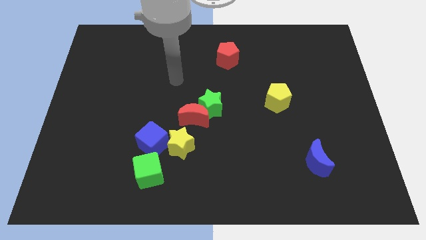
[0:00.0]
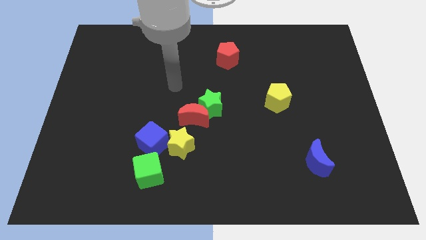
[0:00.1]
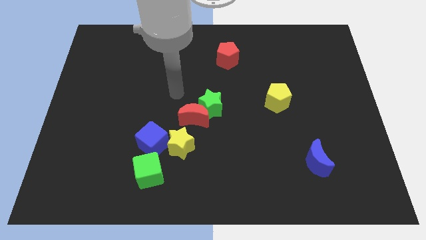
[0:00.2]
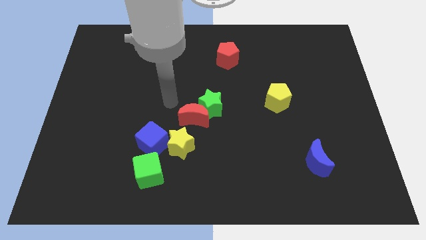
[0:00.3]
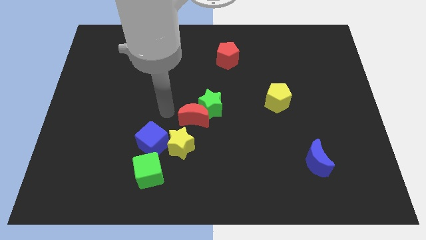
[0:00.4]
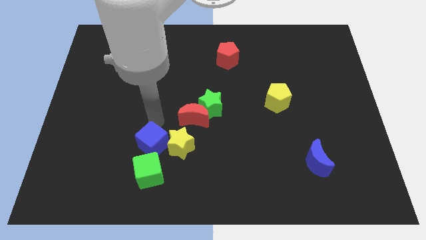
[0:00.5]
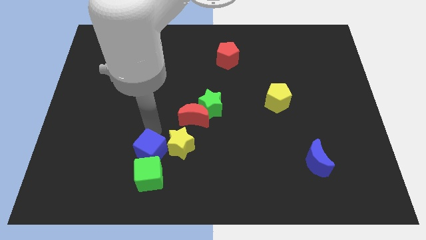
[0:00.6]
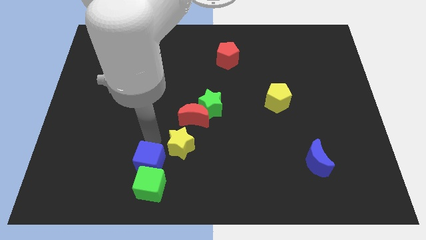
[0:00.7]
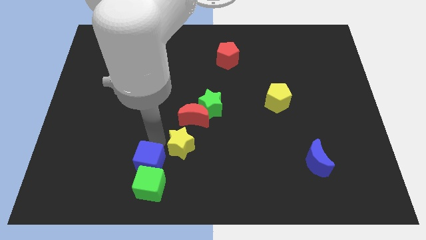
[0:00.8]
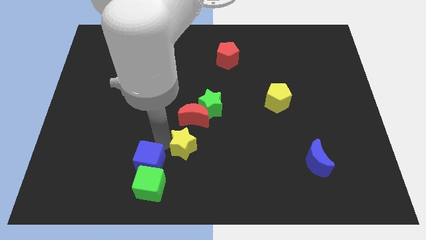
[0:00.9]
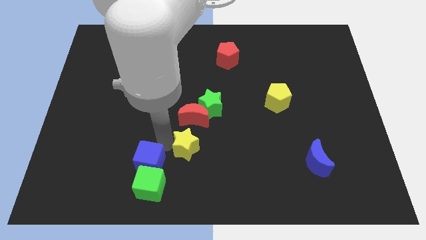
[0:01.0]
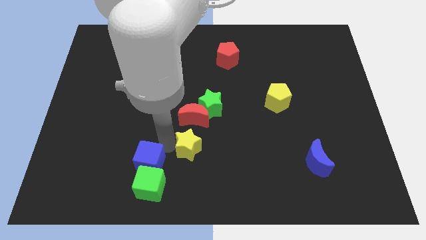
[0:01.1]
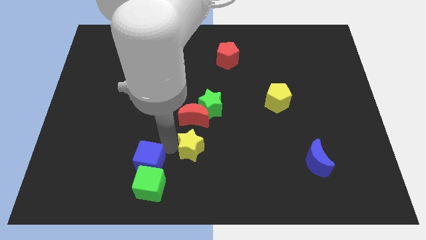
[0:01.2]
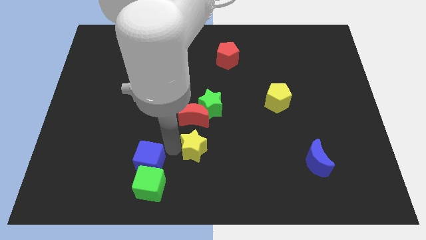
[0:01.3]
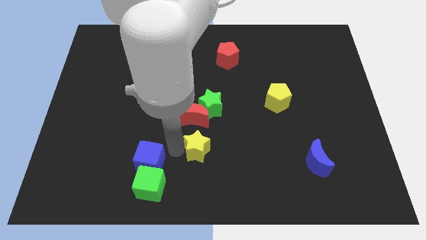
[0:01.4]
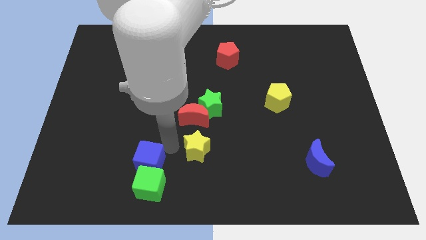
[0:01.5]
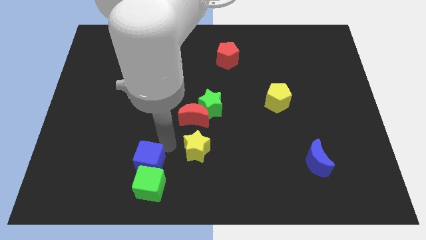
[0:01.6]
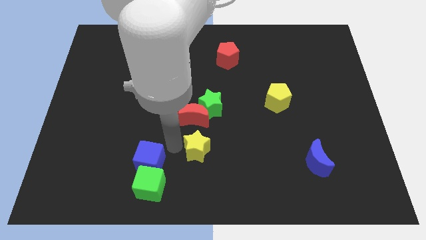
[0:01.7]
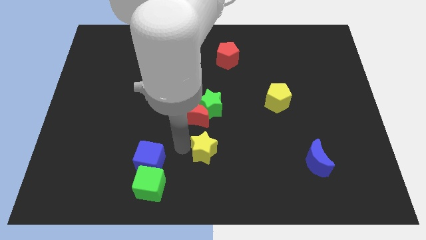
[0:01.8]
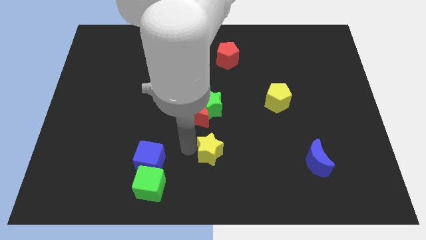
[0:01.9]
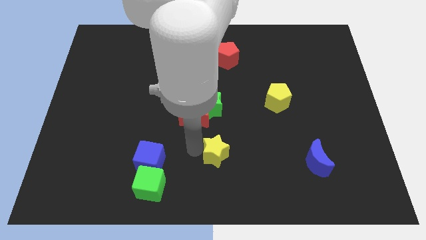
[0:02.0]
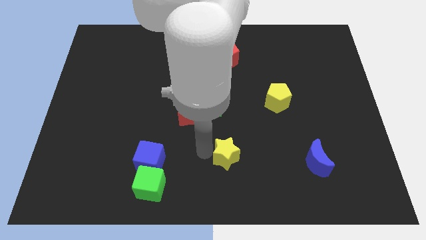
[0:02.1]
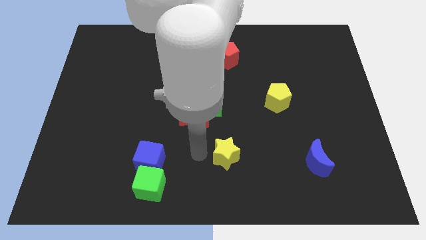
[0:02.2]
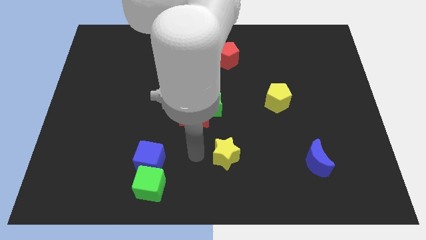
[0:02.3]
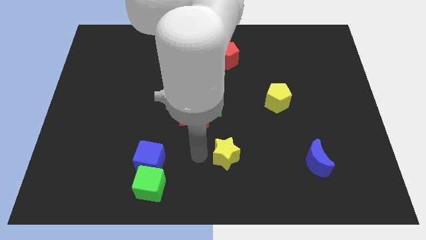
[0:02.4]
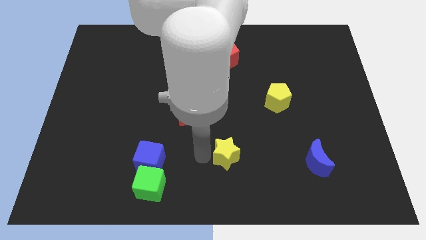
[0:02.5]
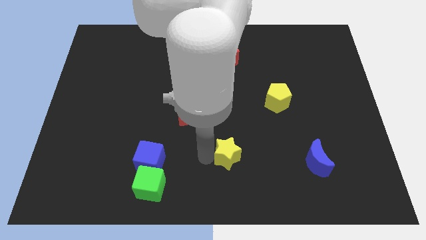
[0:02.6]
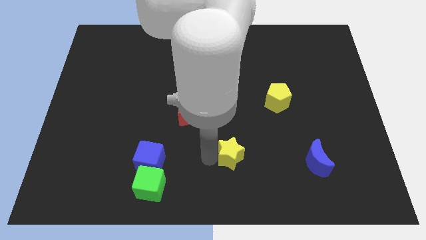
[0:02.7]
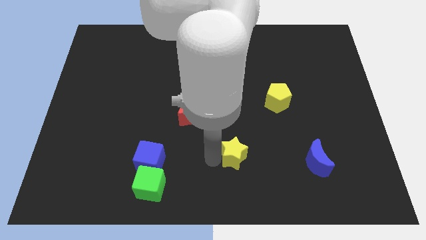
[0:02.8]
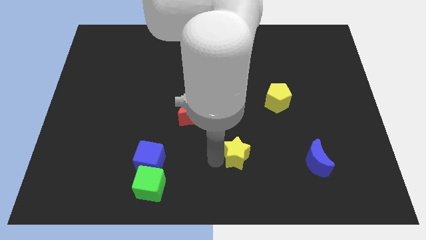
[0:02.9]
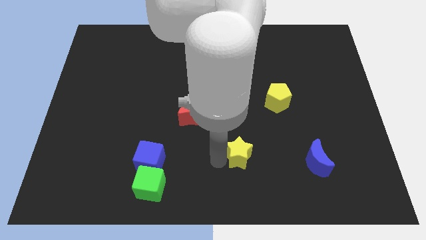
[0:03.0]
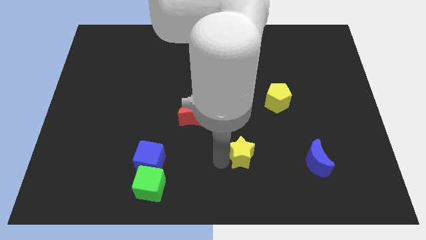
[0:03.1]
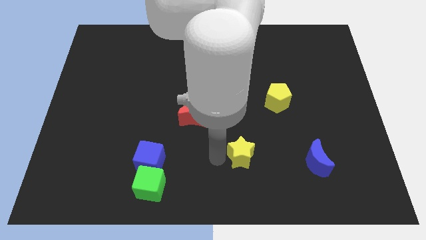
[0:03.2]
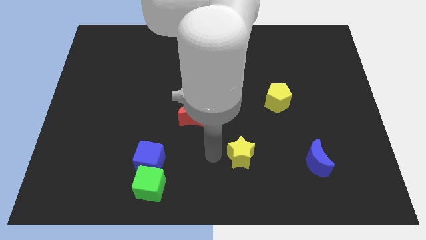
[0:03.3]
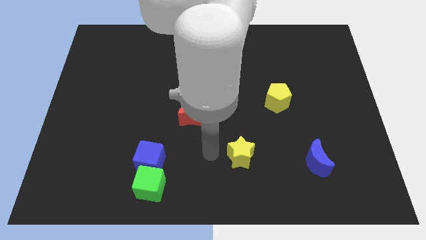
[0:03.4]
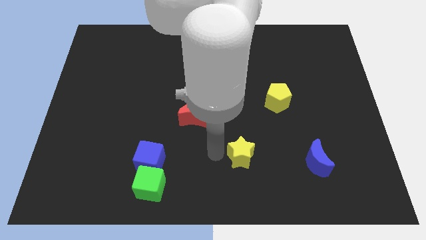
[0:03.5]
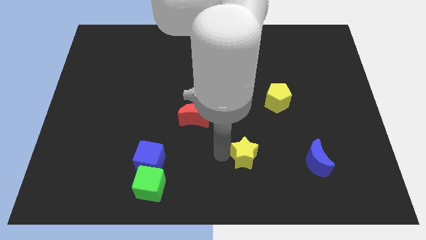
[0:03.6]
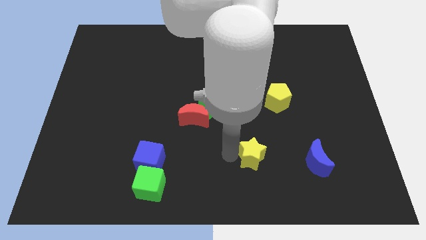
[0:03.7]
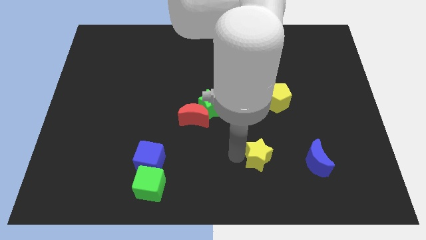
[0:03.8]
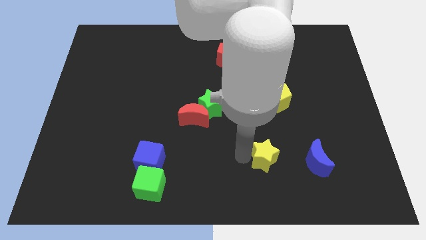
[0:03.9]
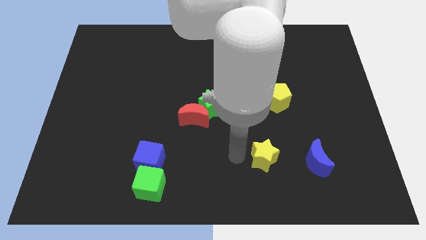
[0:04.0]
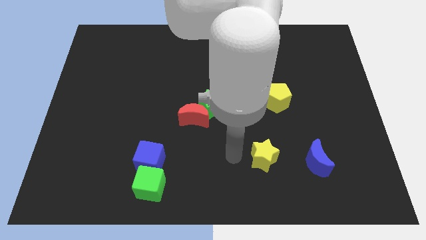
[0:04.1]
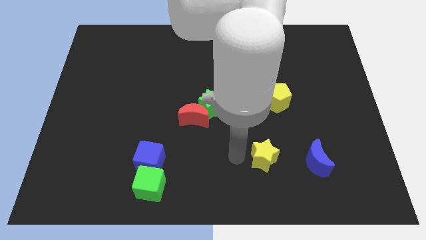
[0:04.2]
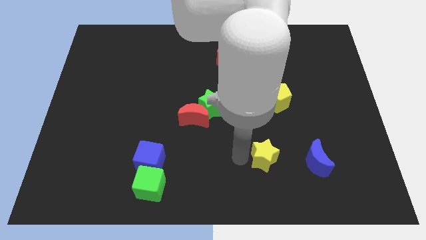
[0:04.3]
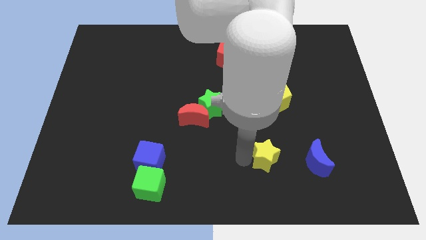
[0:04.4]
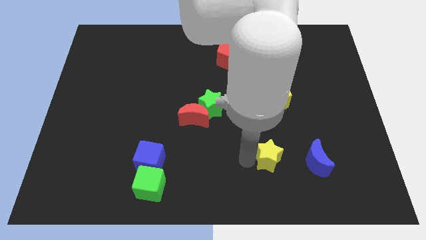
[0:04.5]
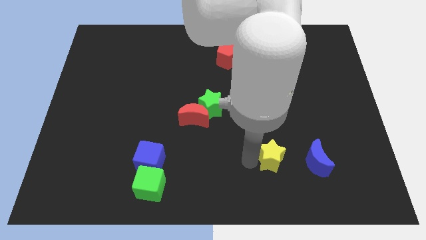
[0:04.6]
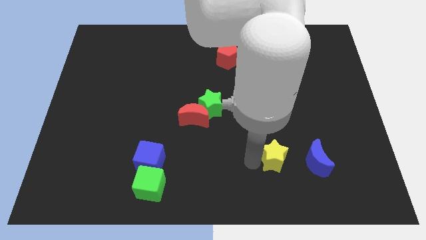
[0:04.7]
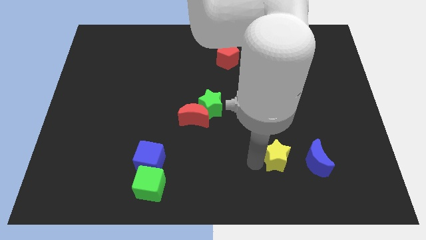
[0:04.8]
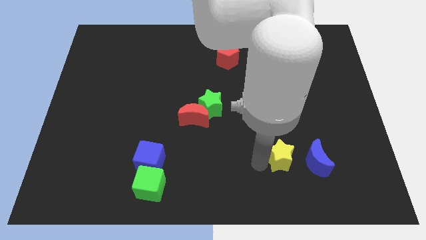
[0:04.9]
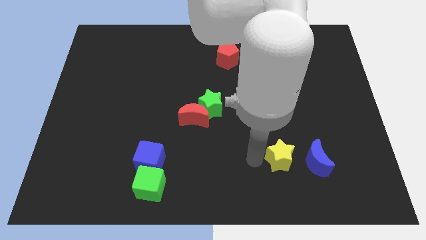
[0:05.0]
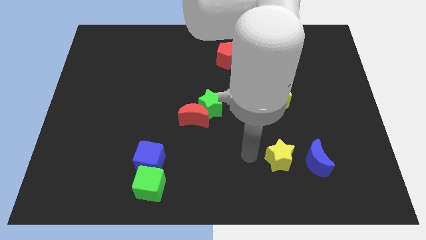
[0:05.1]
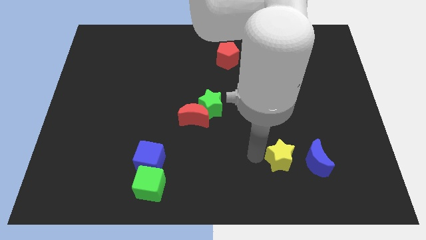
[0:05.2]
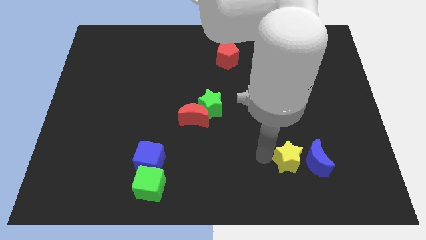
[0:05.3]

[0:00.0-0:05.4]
move the yellow star close to the blue moon

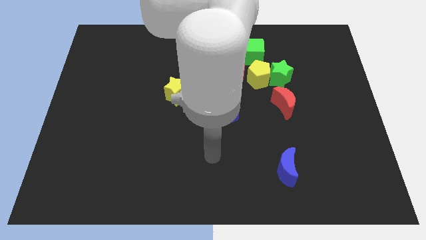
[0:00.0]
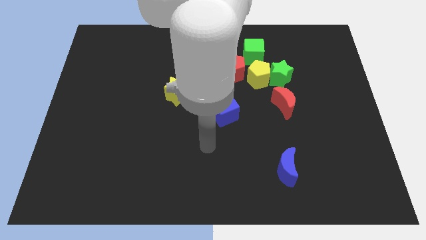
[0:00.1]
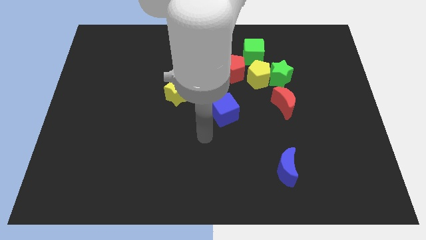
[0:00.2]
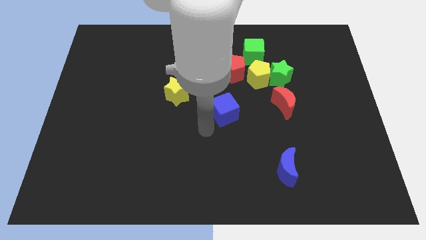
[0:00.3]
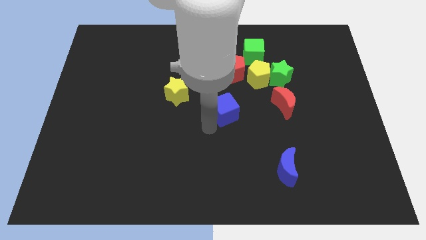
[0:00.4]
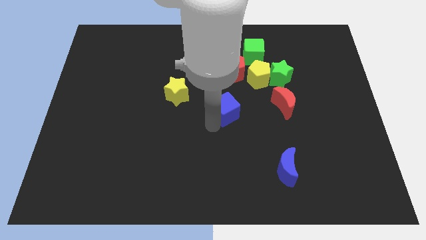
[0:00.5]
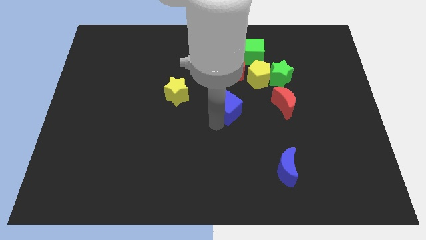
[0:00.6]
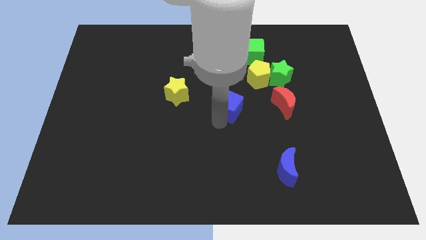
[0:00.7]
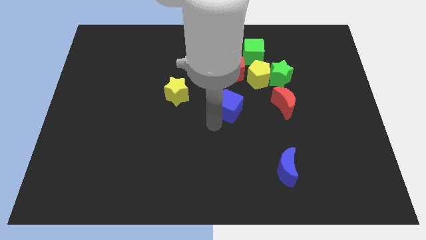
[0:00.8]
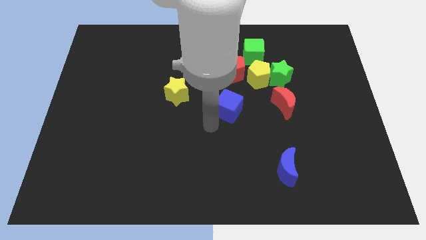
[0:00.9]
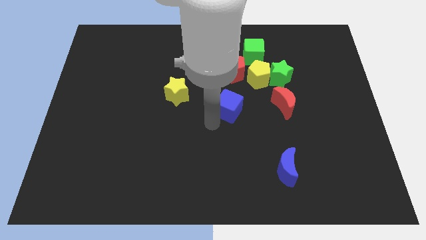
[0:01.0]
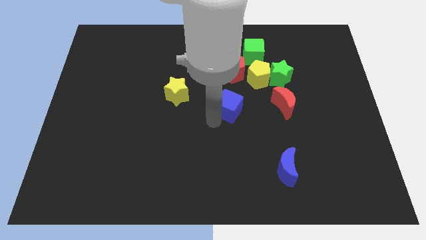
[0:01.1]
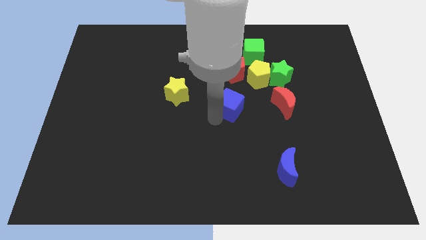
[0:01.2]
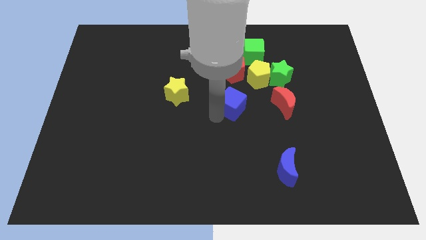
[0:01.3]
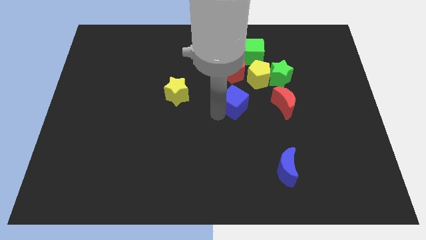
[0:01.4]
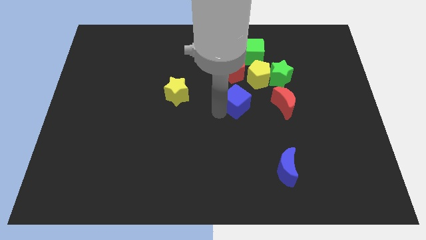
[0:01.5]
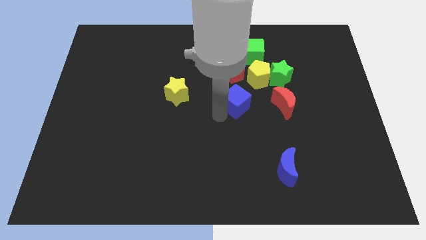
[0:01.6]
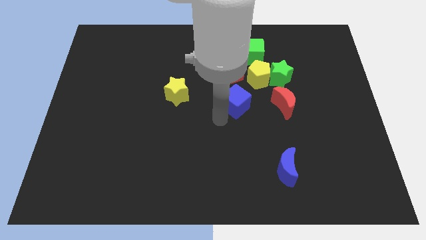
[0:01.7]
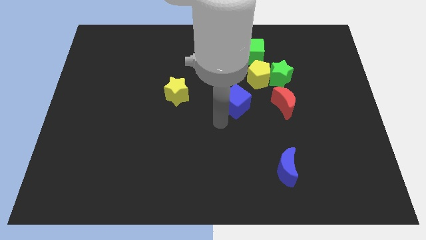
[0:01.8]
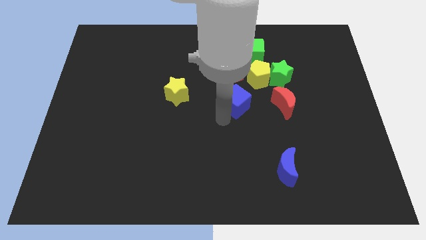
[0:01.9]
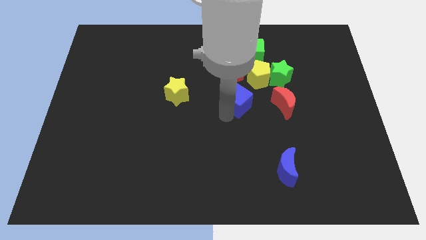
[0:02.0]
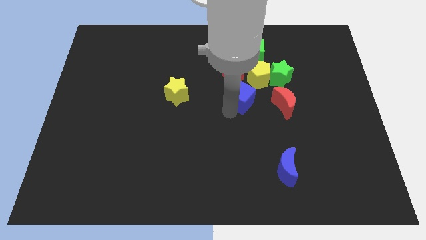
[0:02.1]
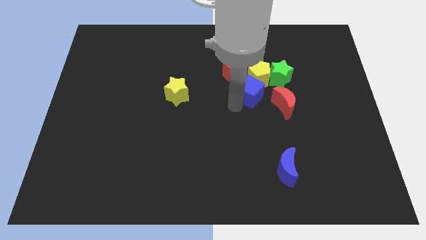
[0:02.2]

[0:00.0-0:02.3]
slide the blue cube next to the yellow pentagon
